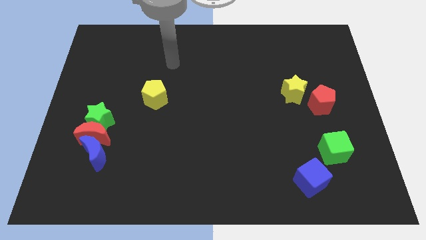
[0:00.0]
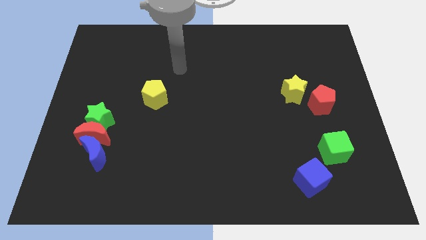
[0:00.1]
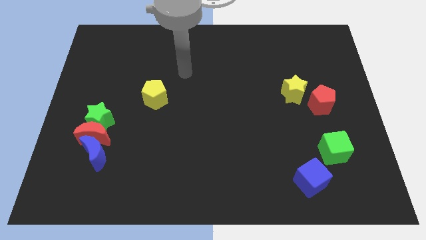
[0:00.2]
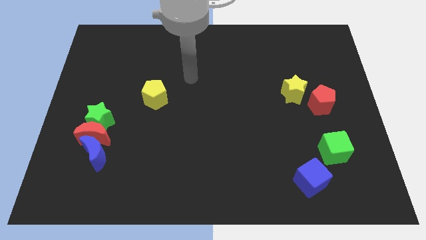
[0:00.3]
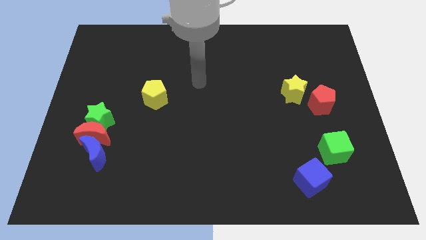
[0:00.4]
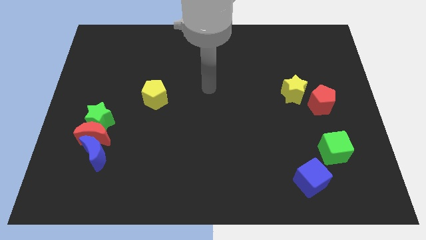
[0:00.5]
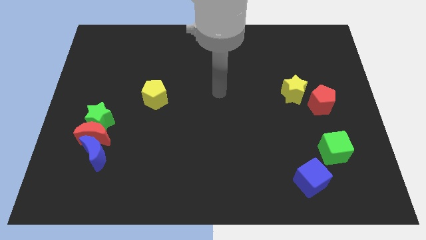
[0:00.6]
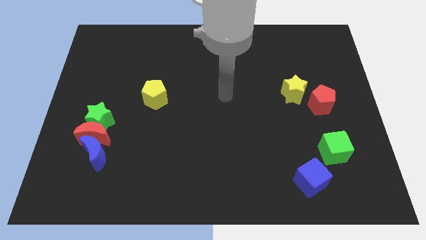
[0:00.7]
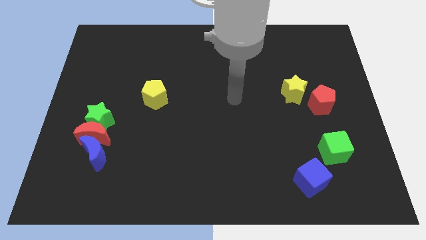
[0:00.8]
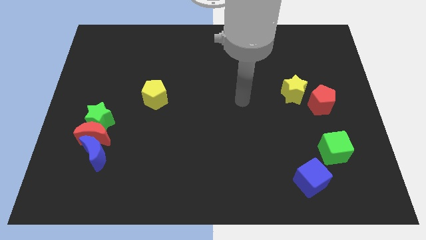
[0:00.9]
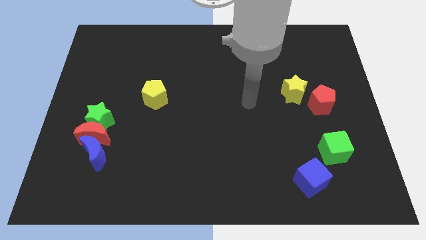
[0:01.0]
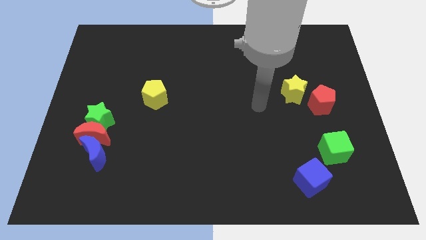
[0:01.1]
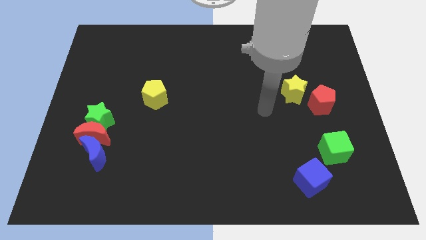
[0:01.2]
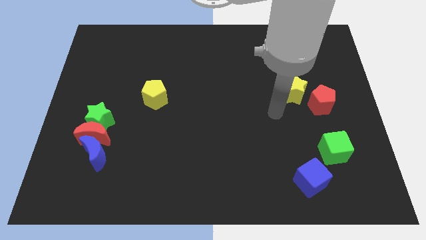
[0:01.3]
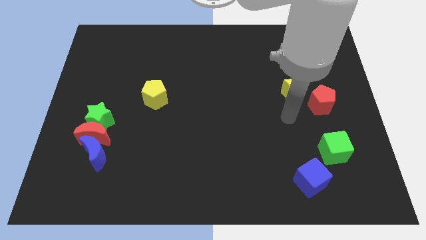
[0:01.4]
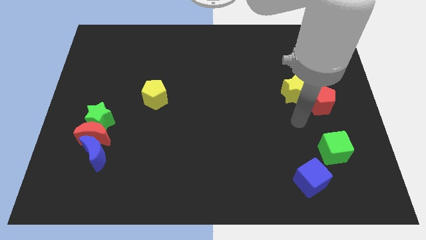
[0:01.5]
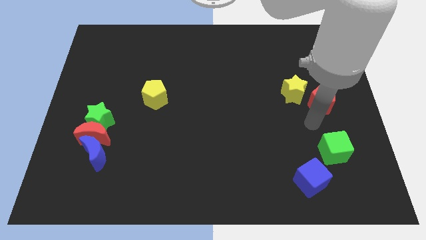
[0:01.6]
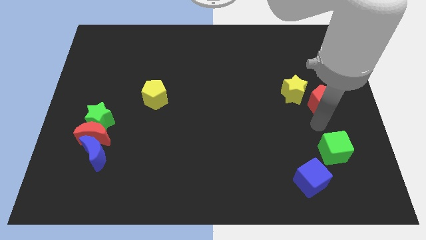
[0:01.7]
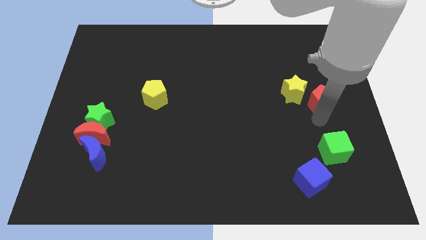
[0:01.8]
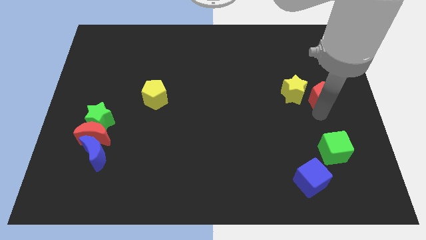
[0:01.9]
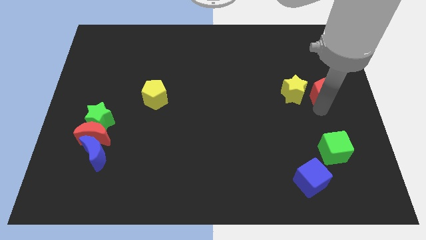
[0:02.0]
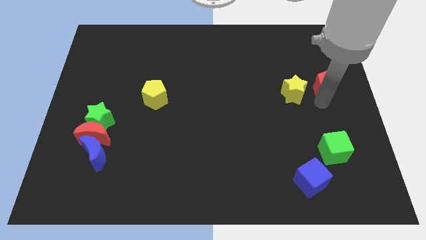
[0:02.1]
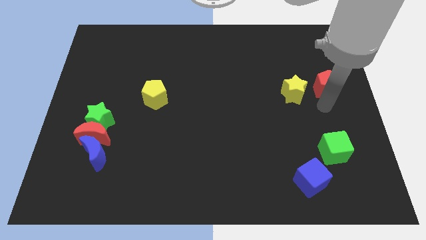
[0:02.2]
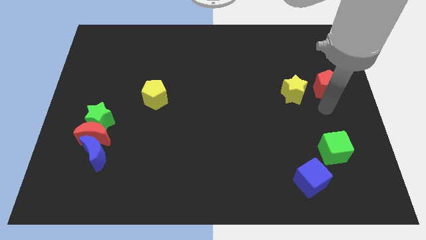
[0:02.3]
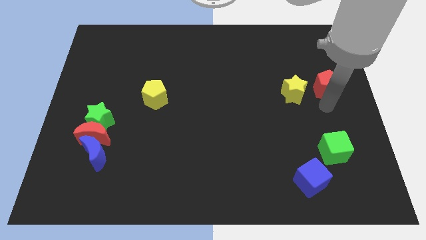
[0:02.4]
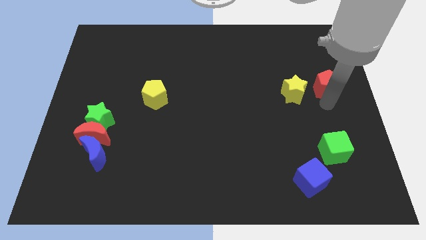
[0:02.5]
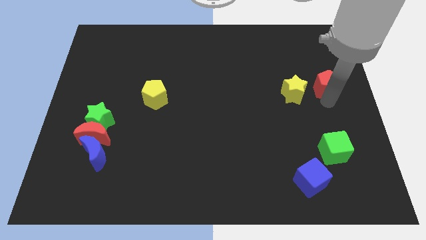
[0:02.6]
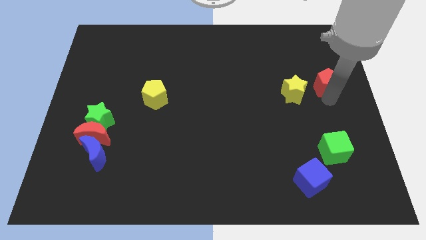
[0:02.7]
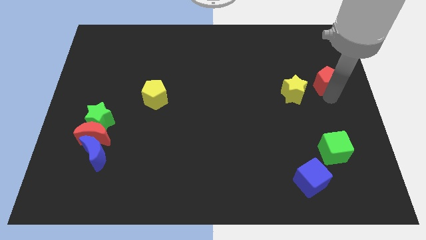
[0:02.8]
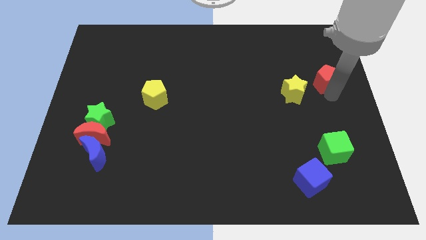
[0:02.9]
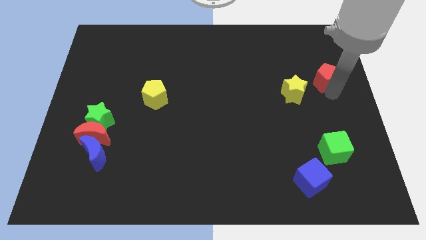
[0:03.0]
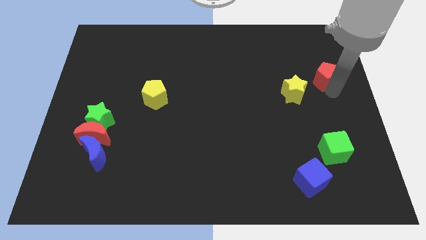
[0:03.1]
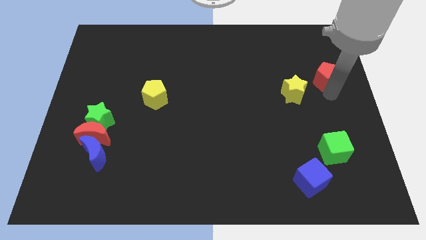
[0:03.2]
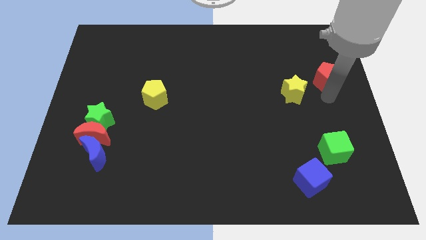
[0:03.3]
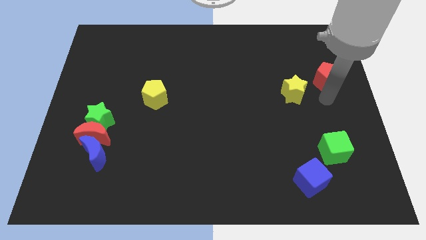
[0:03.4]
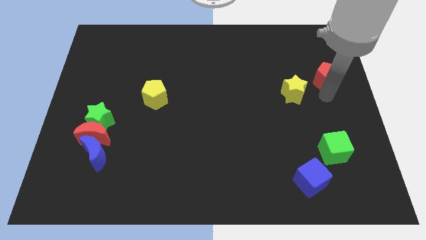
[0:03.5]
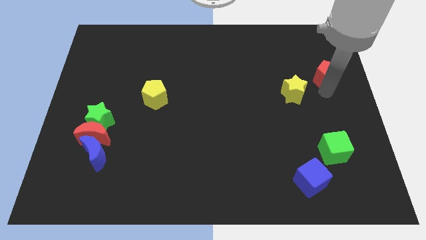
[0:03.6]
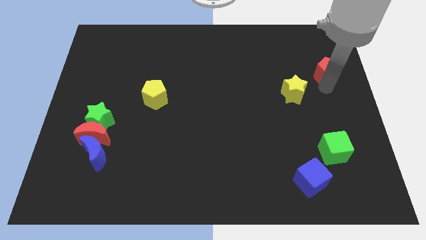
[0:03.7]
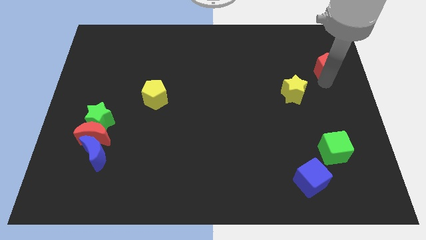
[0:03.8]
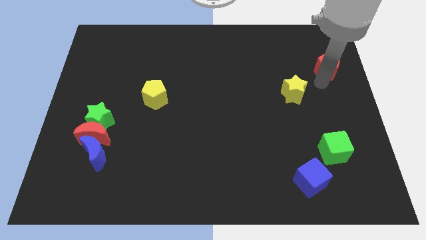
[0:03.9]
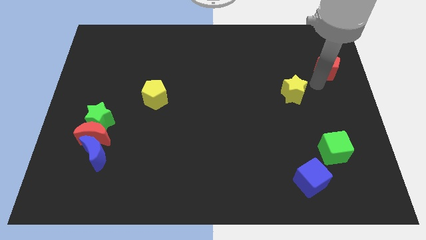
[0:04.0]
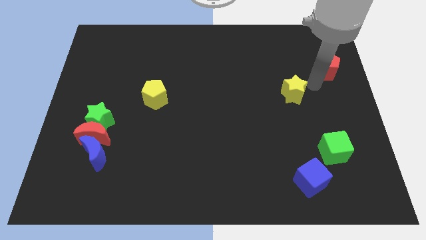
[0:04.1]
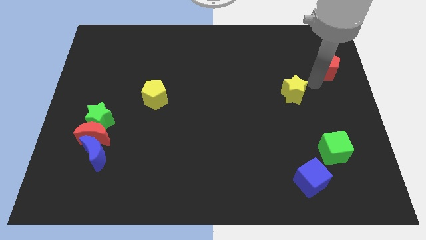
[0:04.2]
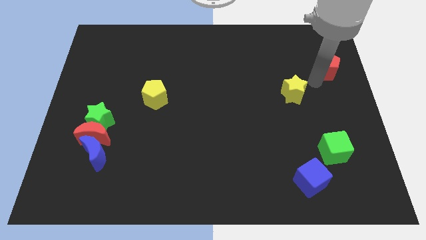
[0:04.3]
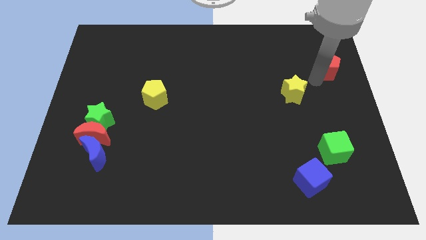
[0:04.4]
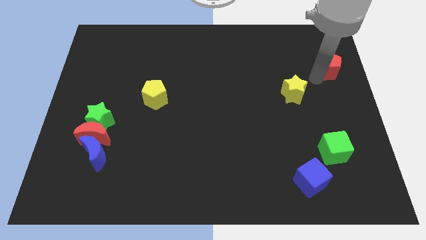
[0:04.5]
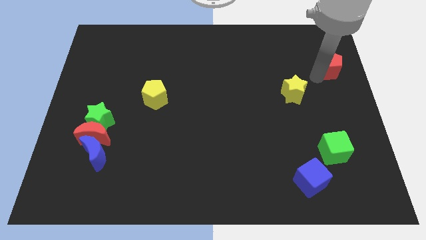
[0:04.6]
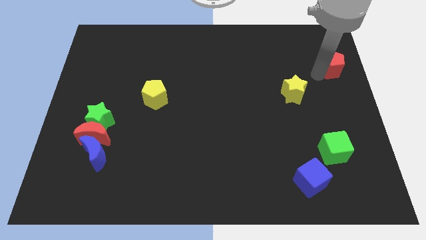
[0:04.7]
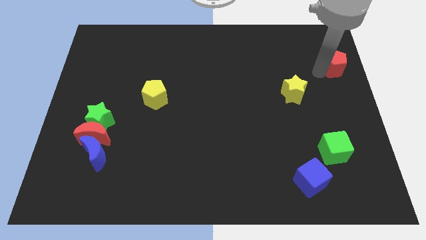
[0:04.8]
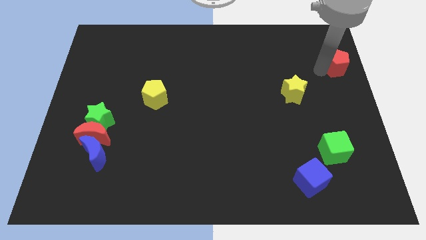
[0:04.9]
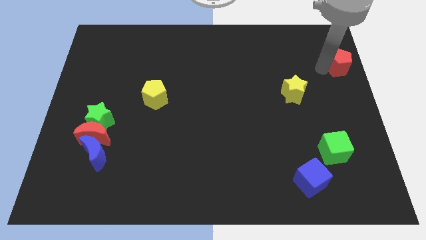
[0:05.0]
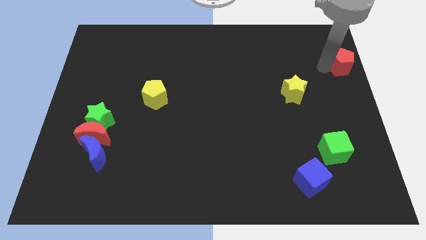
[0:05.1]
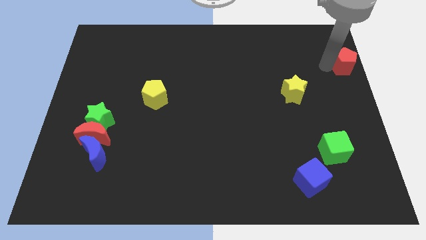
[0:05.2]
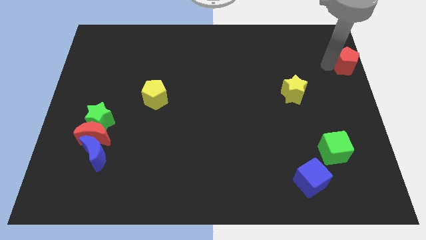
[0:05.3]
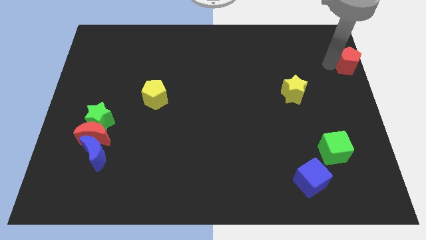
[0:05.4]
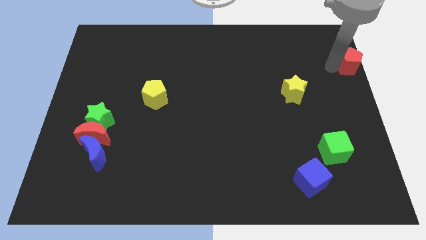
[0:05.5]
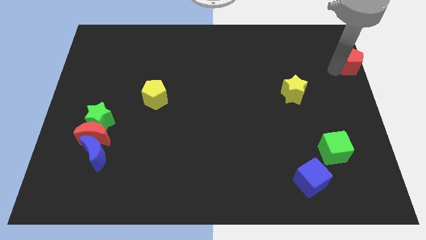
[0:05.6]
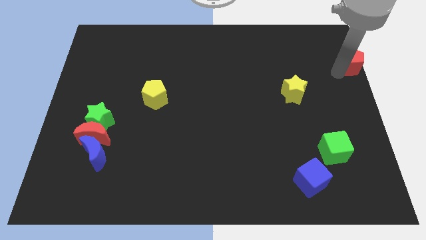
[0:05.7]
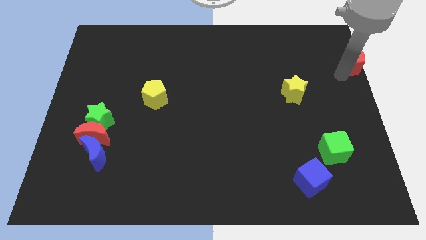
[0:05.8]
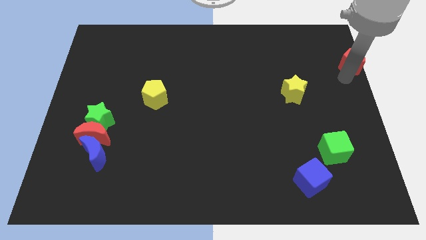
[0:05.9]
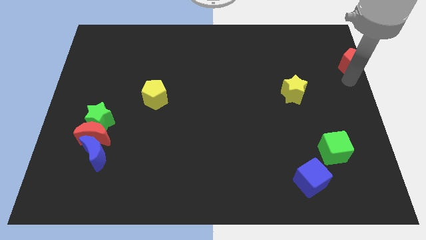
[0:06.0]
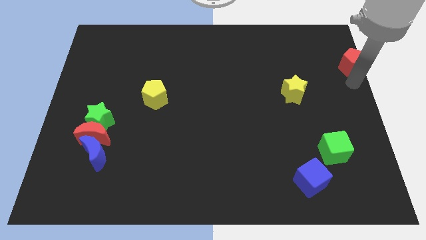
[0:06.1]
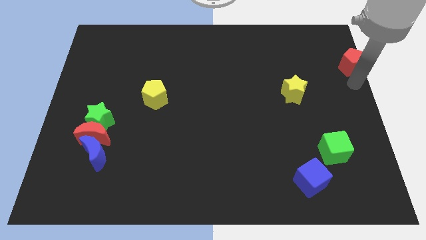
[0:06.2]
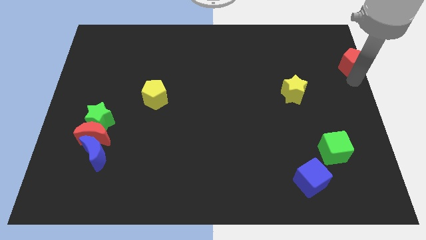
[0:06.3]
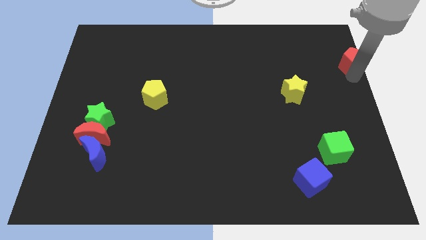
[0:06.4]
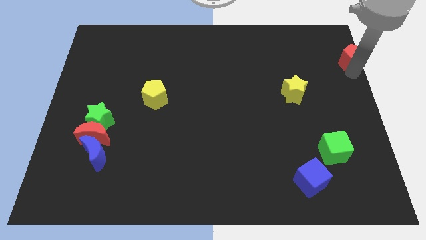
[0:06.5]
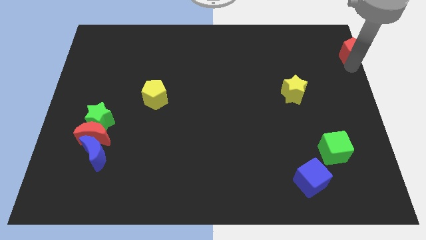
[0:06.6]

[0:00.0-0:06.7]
push the red pentagon to the top right corner
